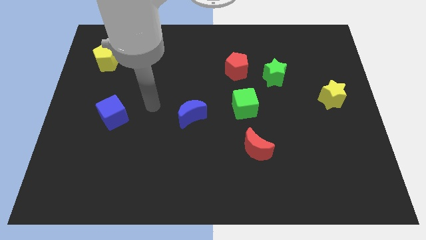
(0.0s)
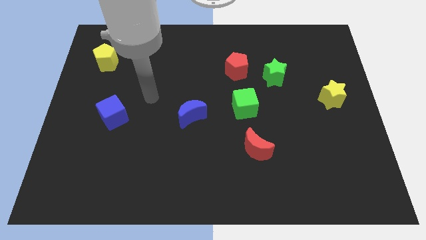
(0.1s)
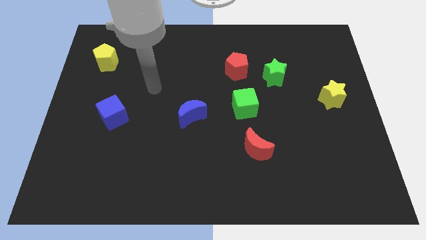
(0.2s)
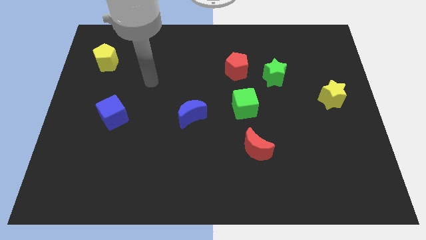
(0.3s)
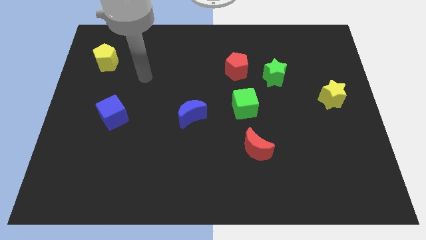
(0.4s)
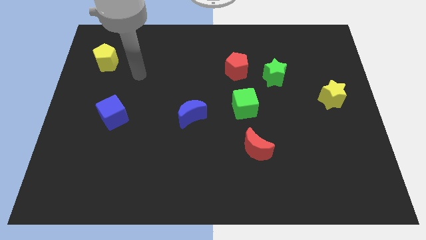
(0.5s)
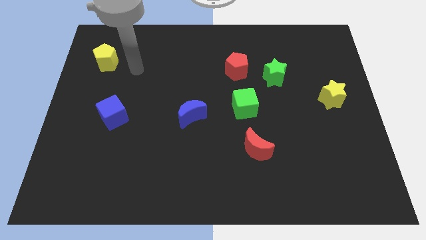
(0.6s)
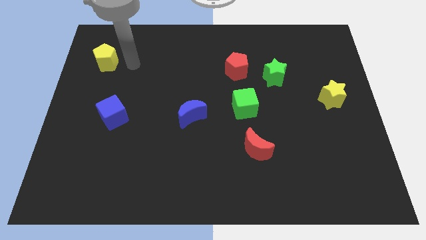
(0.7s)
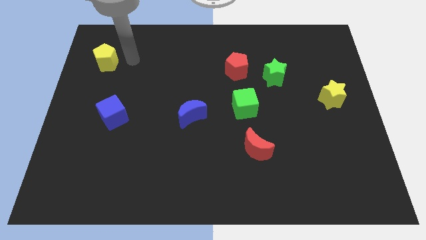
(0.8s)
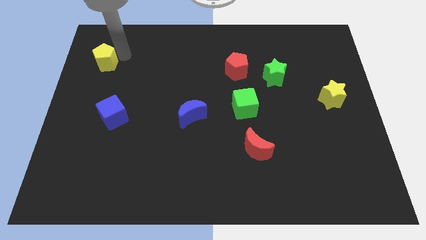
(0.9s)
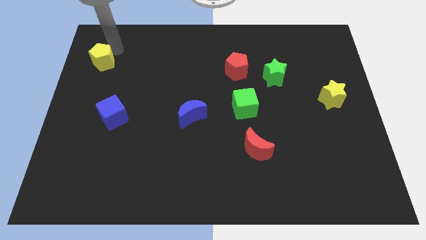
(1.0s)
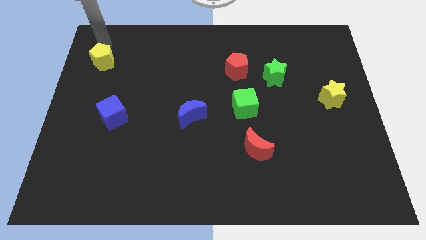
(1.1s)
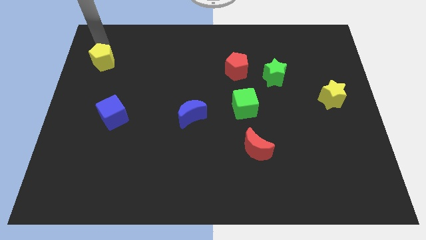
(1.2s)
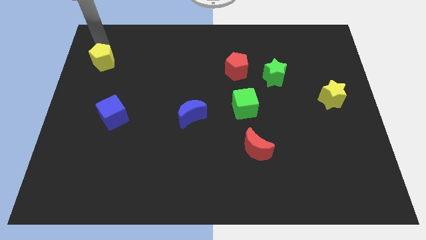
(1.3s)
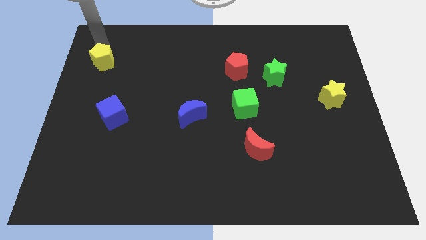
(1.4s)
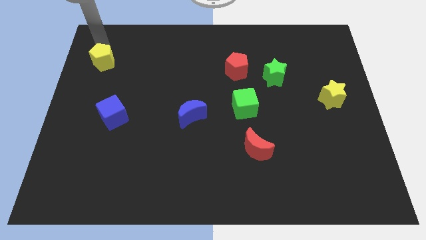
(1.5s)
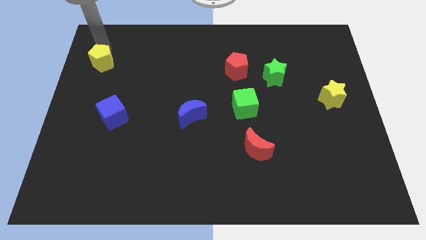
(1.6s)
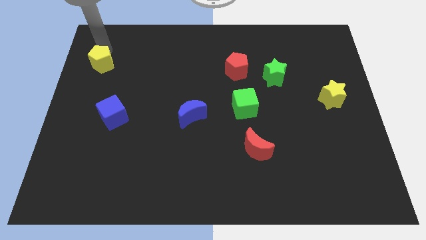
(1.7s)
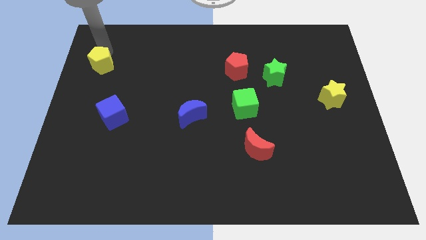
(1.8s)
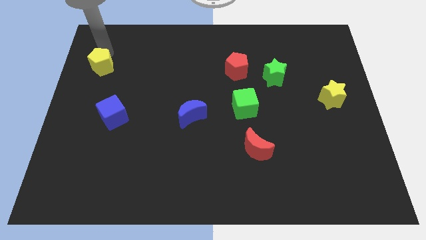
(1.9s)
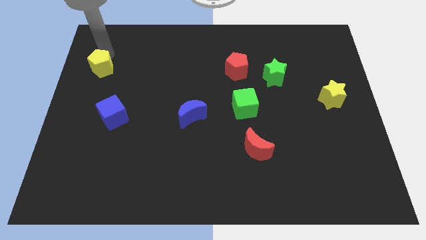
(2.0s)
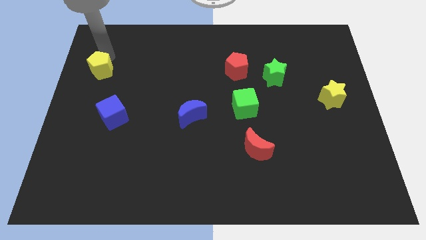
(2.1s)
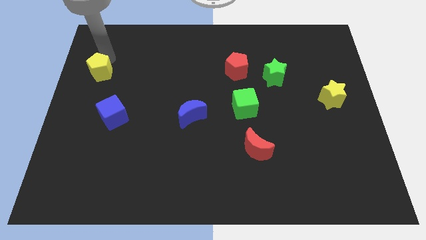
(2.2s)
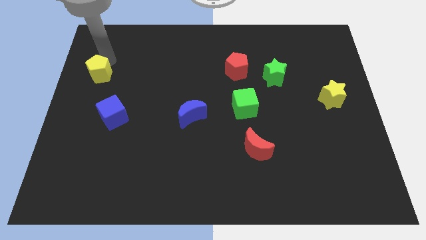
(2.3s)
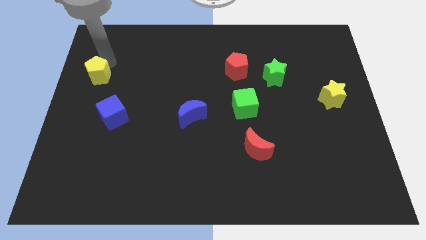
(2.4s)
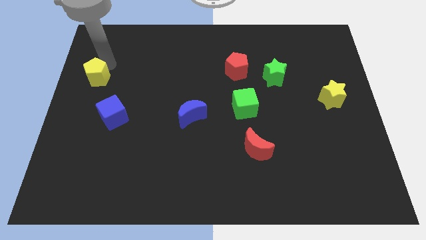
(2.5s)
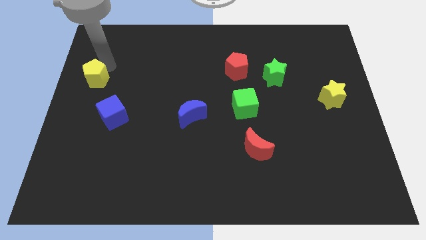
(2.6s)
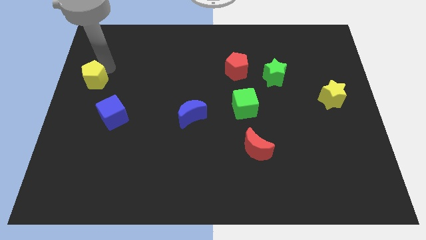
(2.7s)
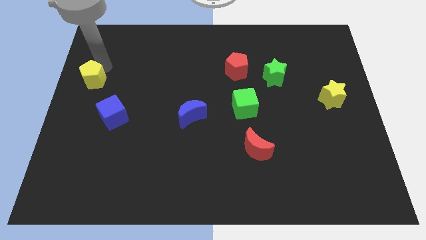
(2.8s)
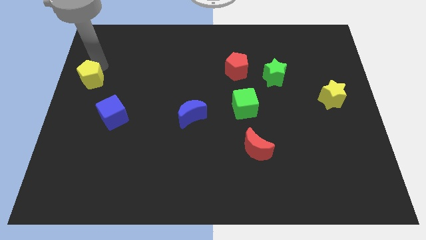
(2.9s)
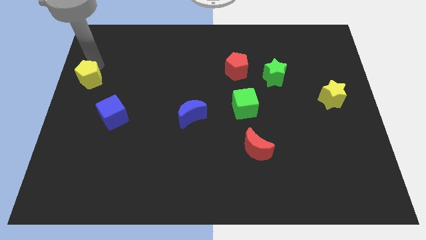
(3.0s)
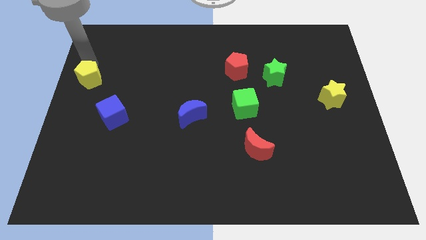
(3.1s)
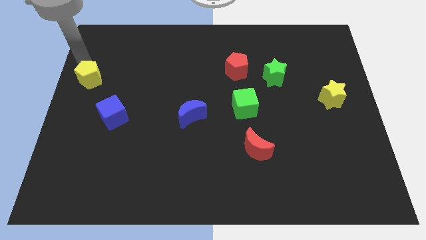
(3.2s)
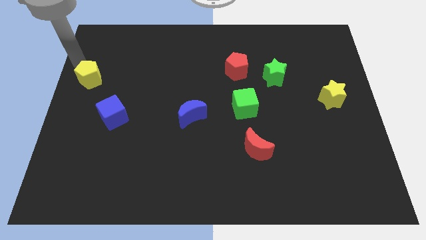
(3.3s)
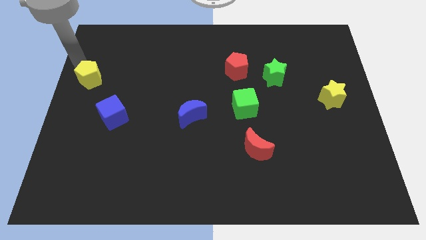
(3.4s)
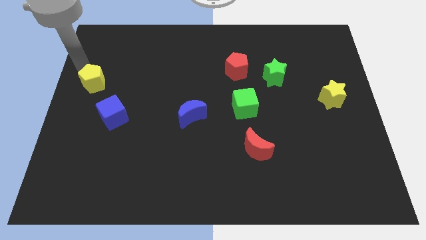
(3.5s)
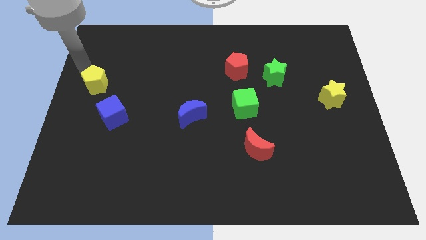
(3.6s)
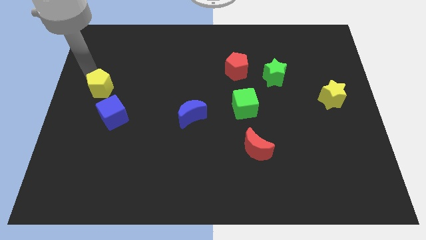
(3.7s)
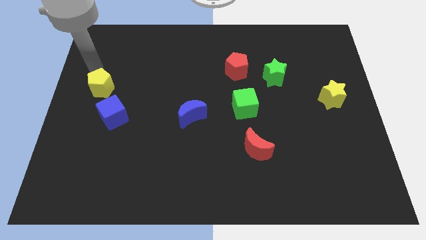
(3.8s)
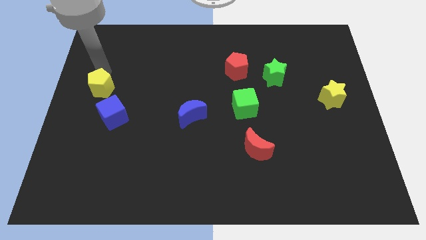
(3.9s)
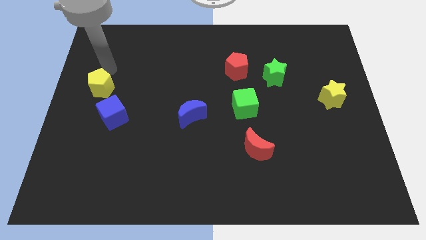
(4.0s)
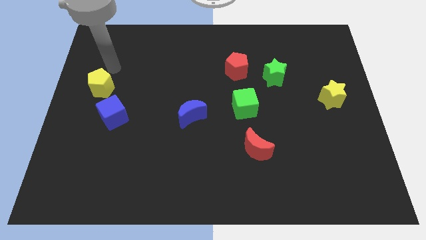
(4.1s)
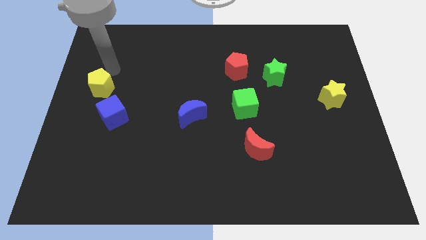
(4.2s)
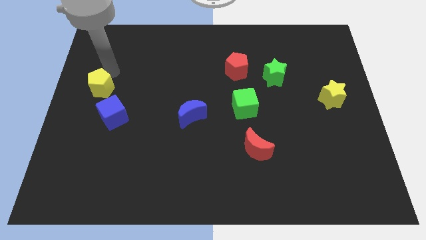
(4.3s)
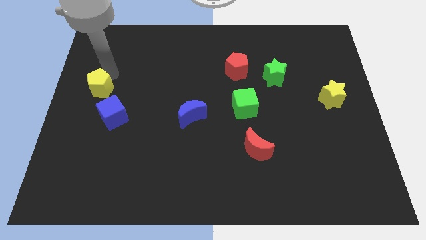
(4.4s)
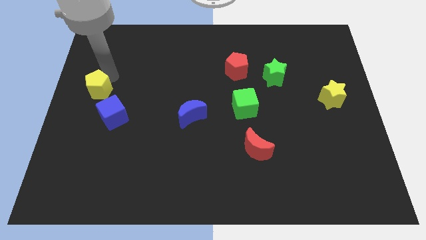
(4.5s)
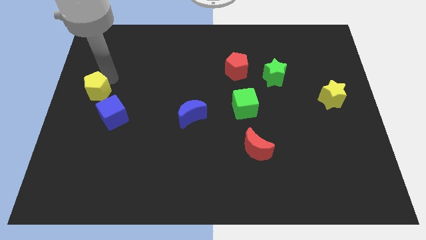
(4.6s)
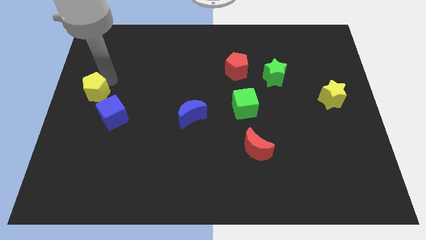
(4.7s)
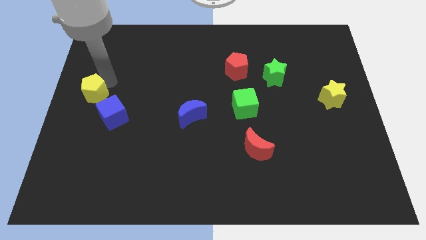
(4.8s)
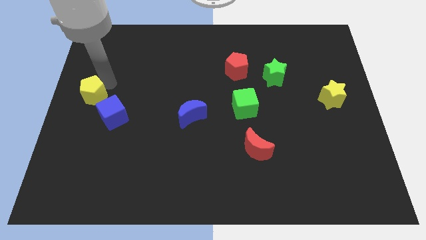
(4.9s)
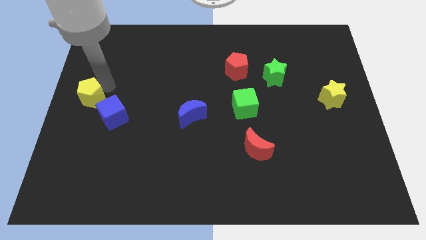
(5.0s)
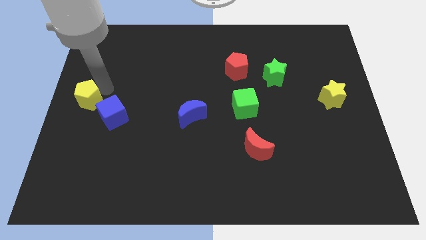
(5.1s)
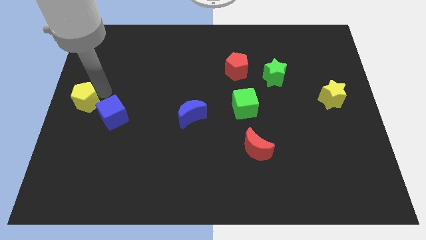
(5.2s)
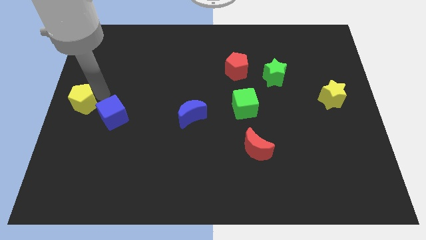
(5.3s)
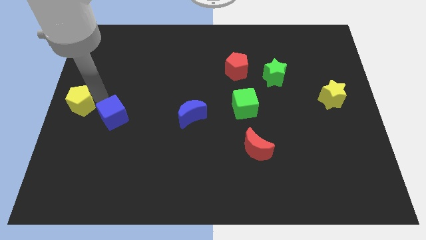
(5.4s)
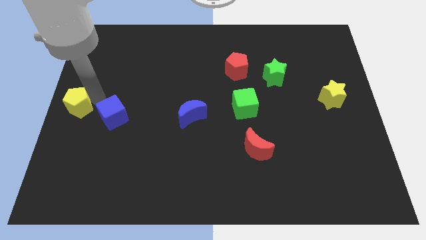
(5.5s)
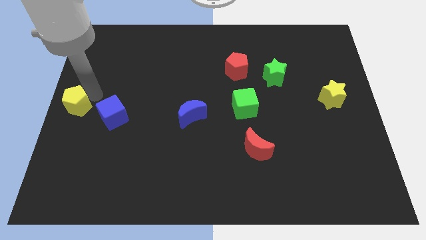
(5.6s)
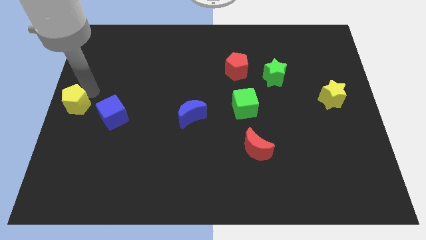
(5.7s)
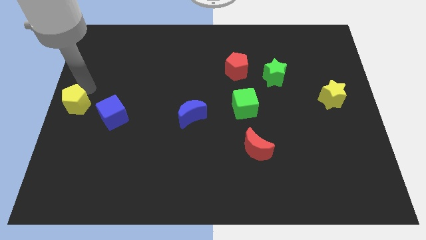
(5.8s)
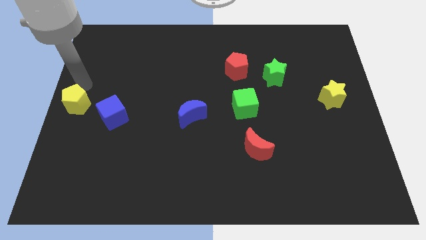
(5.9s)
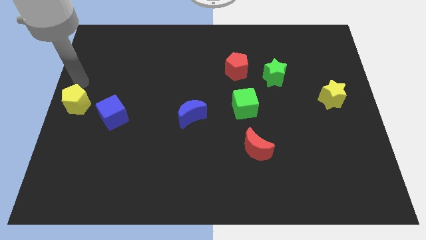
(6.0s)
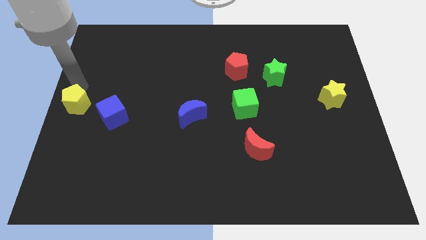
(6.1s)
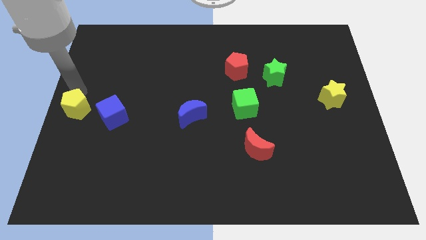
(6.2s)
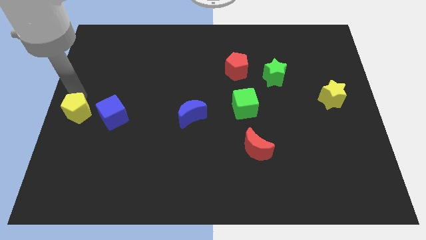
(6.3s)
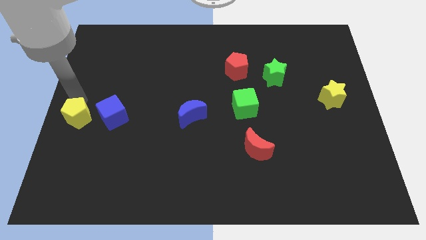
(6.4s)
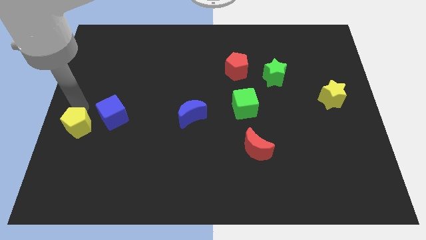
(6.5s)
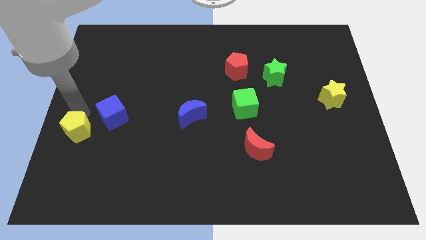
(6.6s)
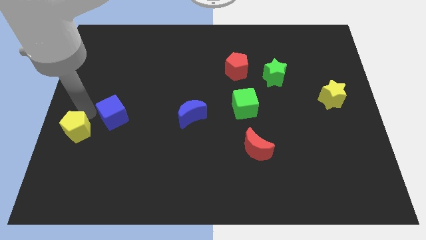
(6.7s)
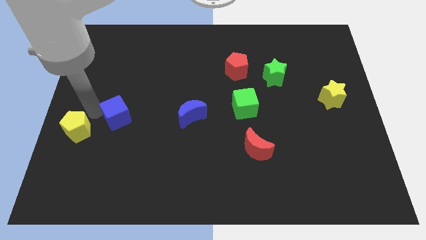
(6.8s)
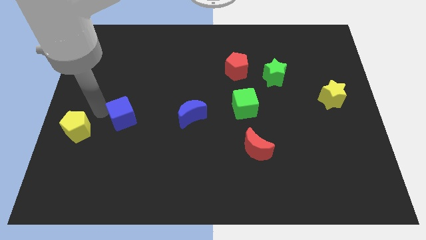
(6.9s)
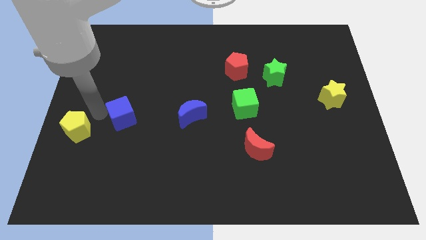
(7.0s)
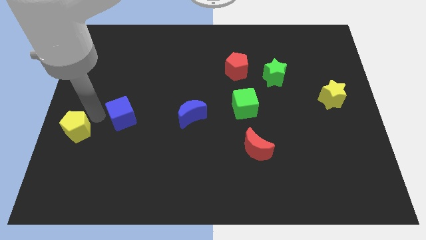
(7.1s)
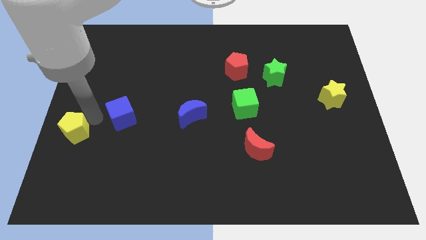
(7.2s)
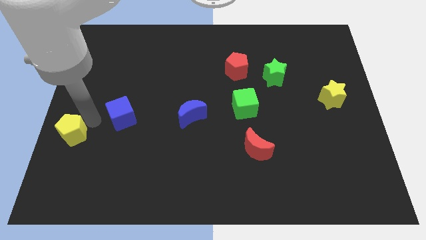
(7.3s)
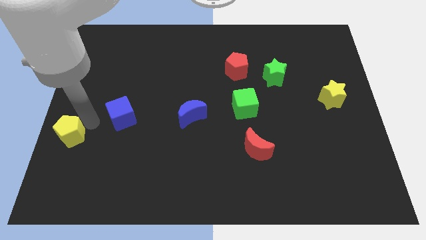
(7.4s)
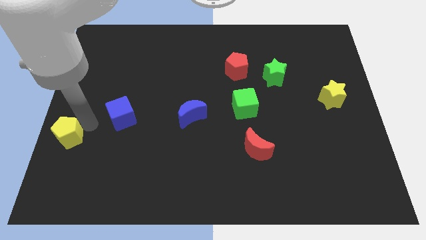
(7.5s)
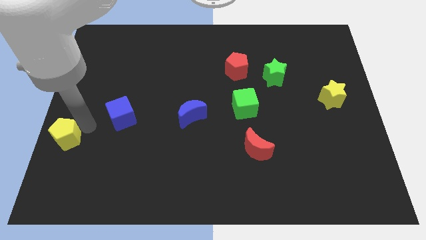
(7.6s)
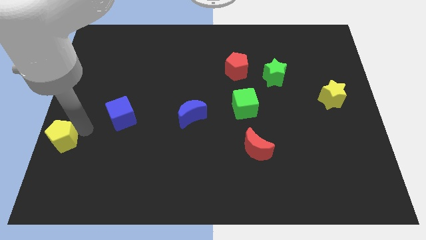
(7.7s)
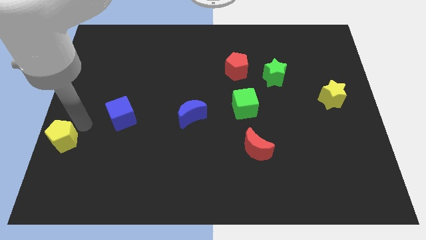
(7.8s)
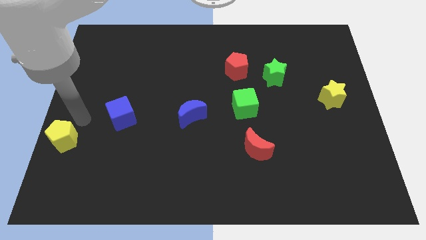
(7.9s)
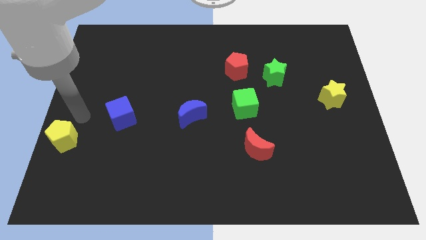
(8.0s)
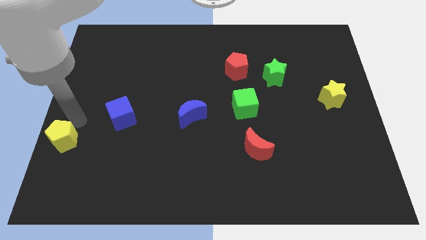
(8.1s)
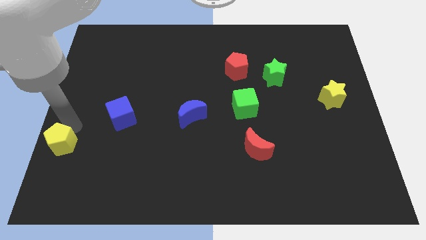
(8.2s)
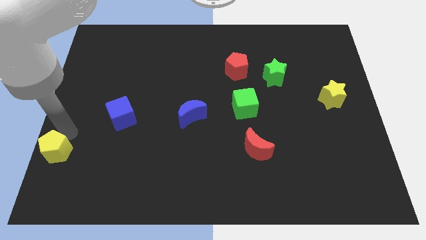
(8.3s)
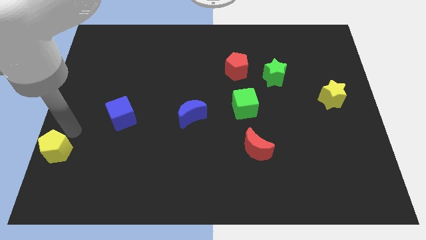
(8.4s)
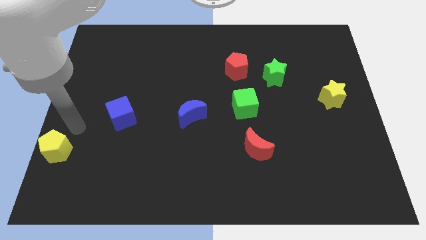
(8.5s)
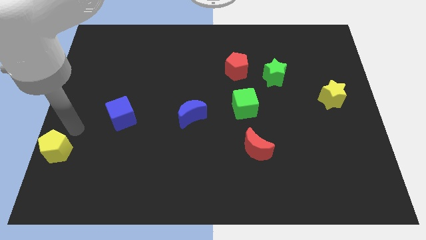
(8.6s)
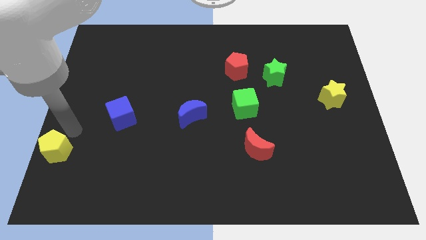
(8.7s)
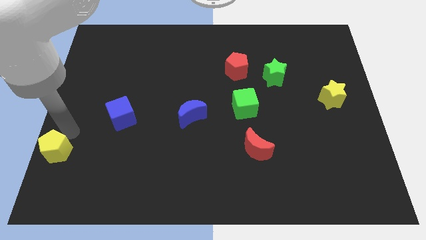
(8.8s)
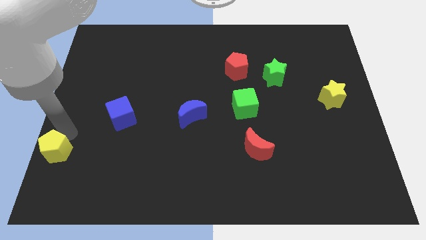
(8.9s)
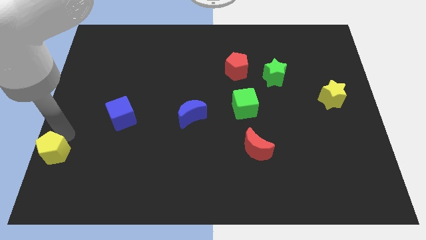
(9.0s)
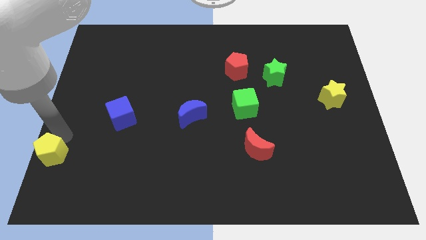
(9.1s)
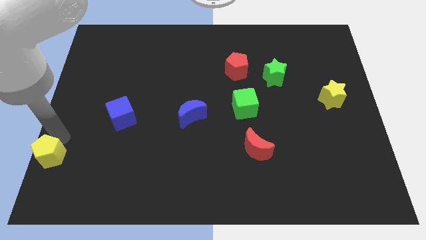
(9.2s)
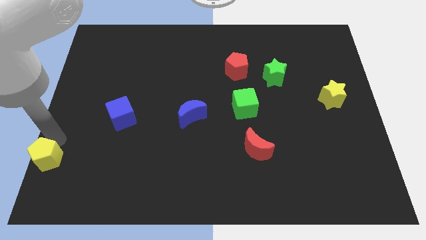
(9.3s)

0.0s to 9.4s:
push the yellow pentagon to the bottom left of the board
